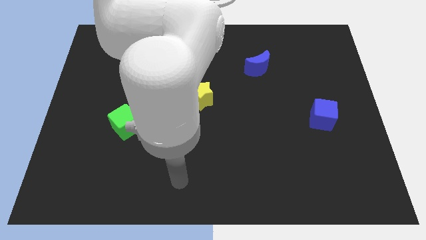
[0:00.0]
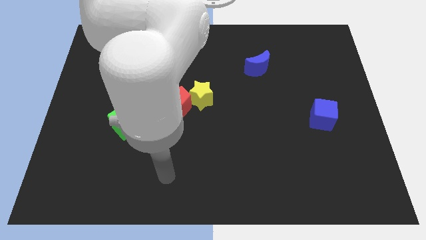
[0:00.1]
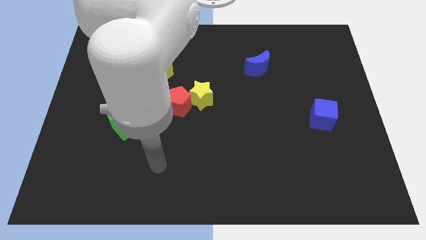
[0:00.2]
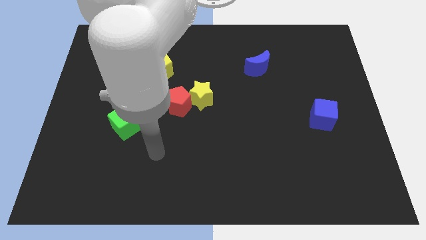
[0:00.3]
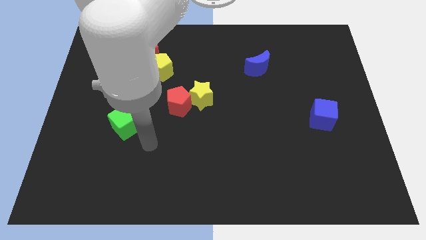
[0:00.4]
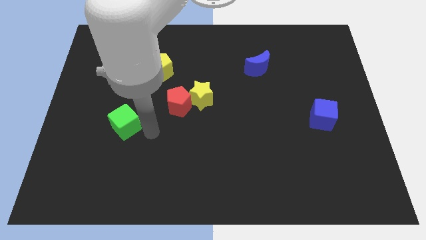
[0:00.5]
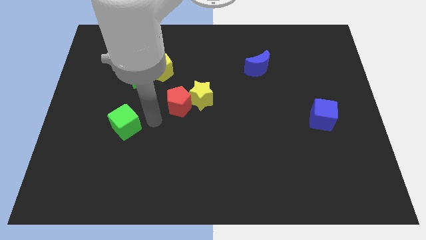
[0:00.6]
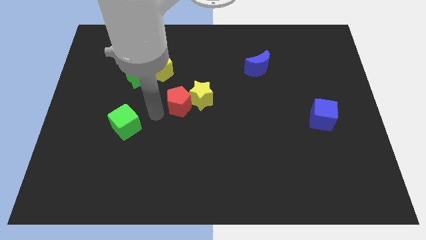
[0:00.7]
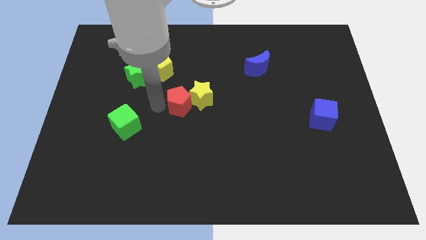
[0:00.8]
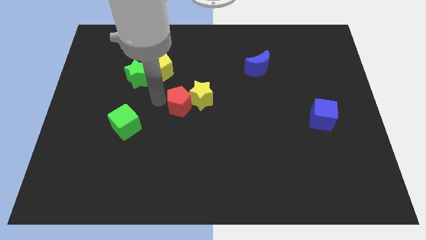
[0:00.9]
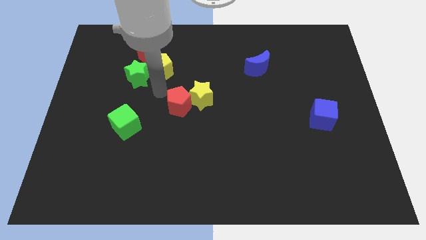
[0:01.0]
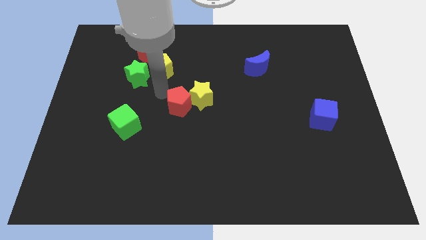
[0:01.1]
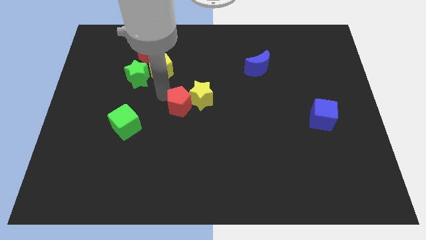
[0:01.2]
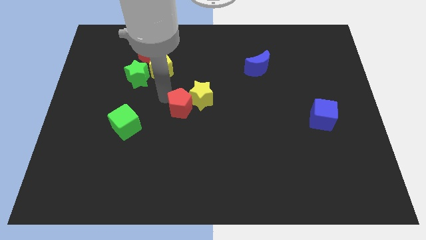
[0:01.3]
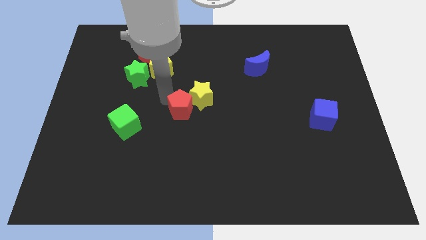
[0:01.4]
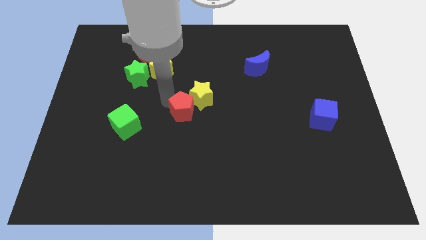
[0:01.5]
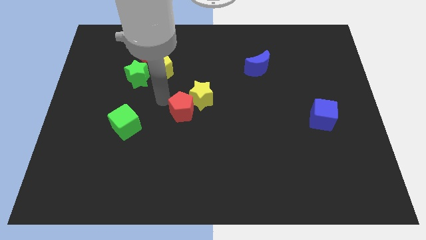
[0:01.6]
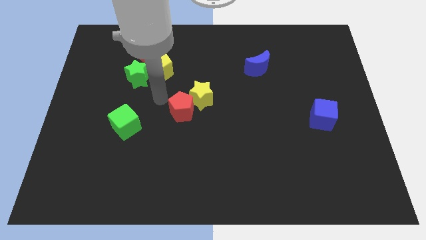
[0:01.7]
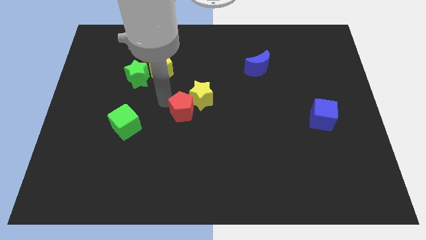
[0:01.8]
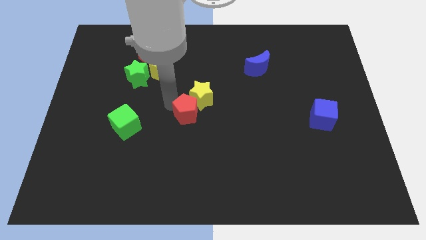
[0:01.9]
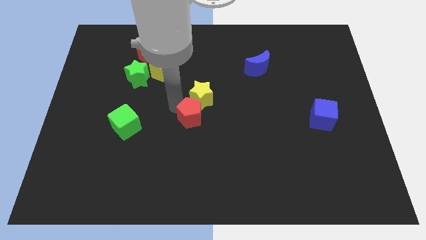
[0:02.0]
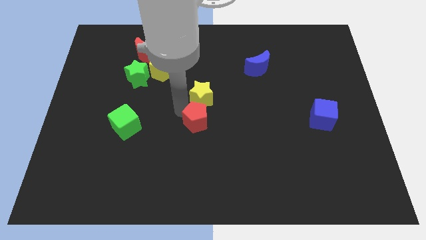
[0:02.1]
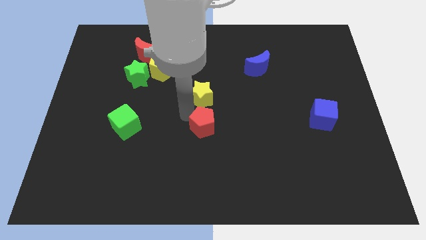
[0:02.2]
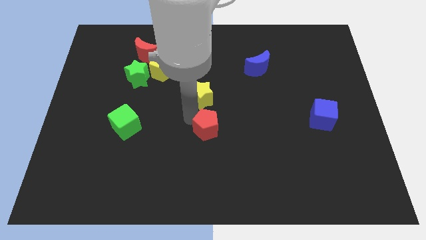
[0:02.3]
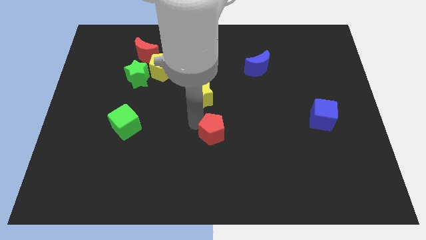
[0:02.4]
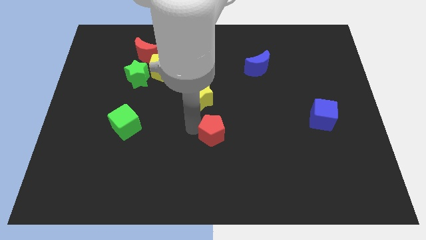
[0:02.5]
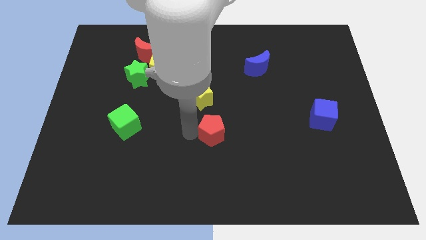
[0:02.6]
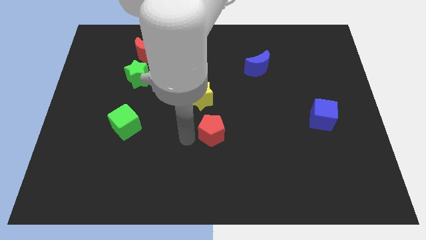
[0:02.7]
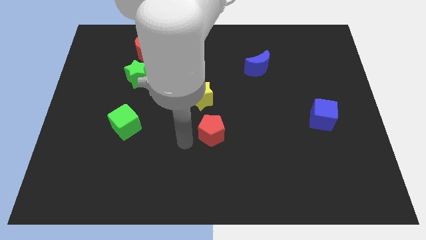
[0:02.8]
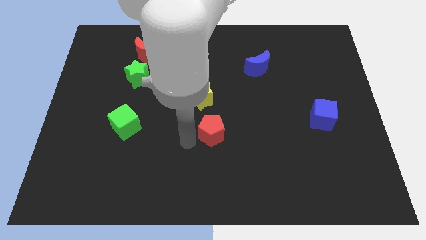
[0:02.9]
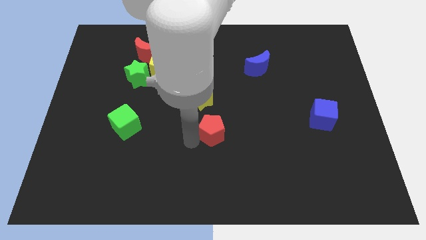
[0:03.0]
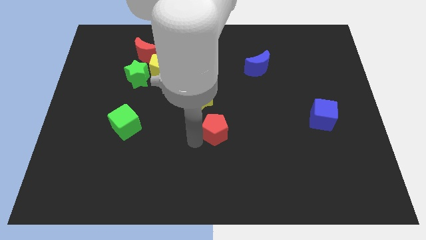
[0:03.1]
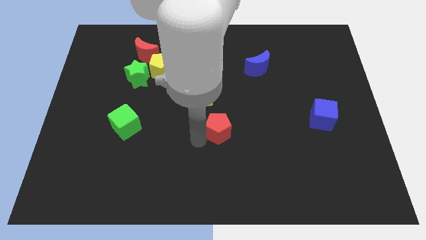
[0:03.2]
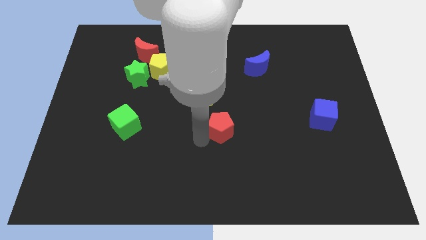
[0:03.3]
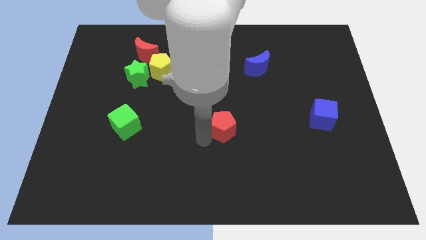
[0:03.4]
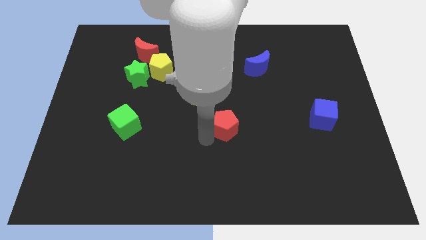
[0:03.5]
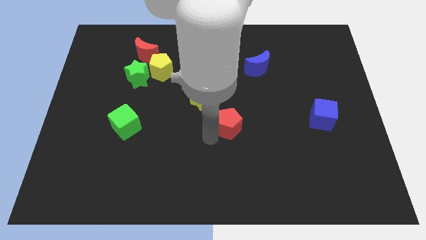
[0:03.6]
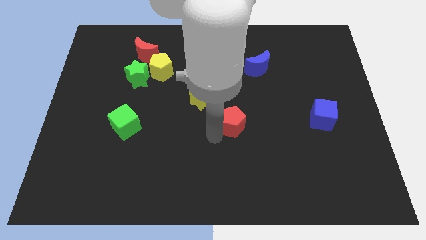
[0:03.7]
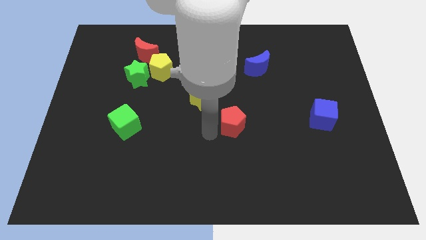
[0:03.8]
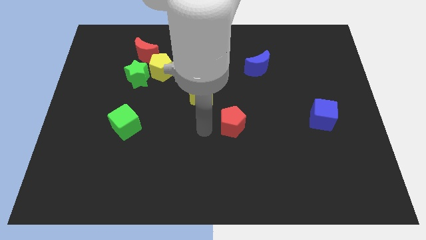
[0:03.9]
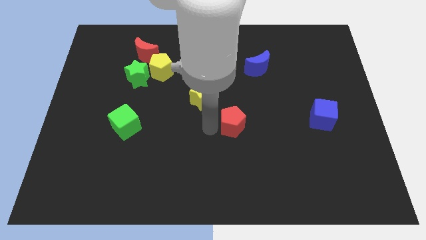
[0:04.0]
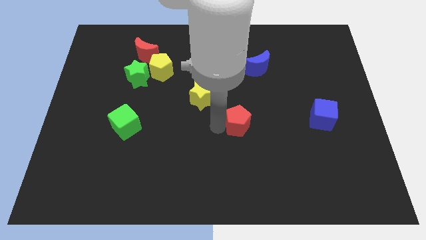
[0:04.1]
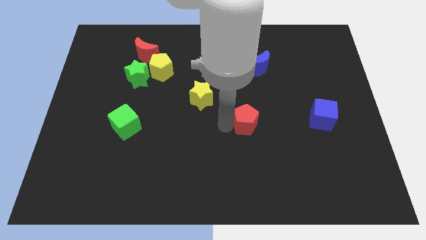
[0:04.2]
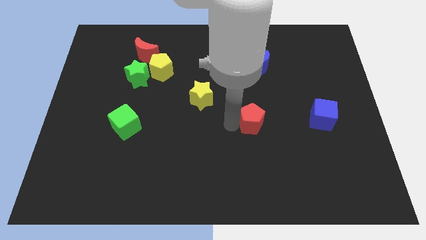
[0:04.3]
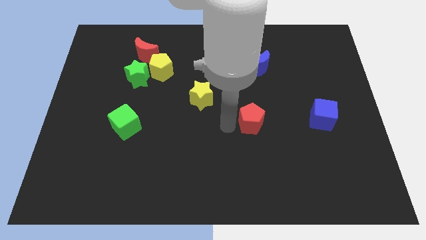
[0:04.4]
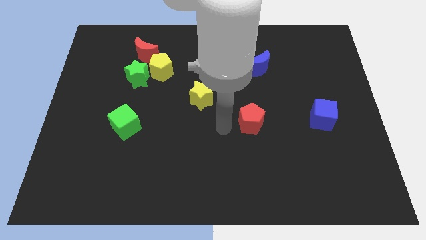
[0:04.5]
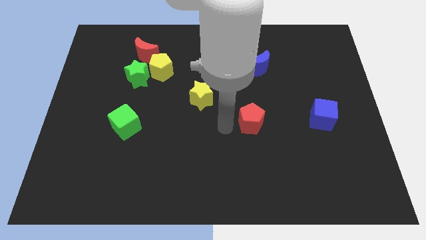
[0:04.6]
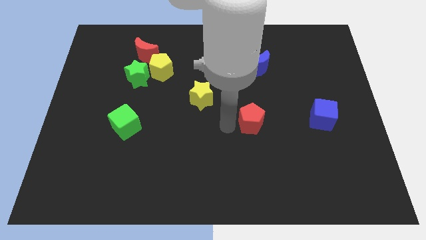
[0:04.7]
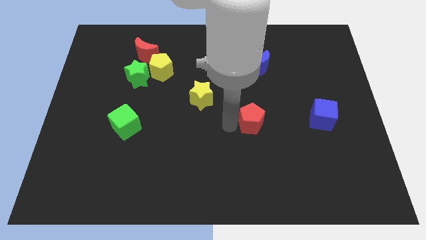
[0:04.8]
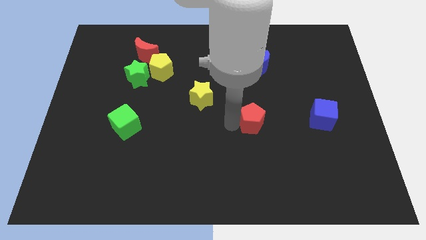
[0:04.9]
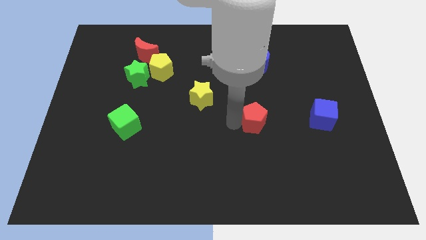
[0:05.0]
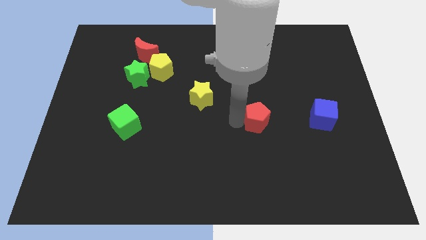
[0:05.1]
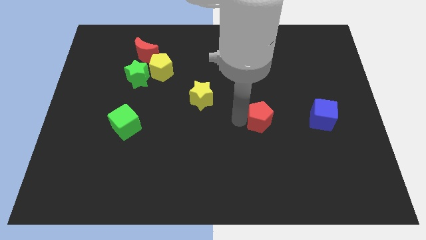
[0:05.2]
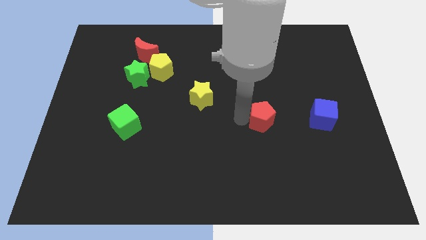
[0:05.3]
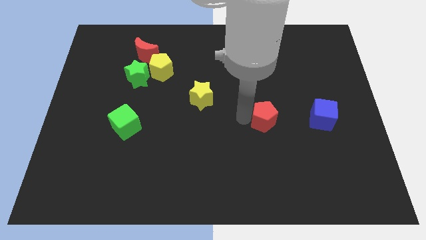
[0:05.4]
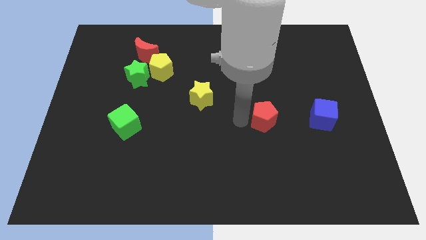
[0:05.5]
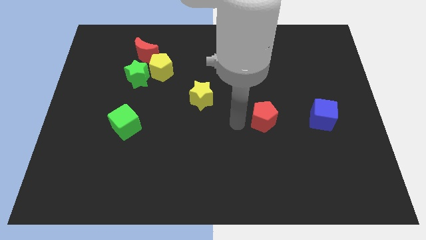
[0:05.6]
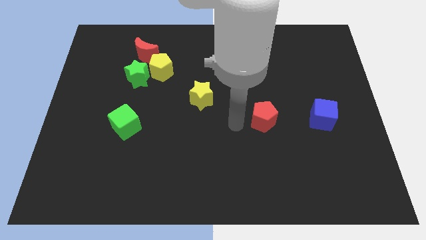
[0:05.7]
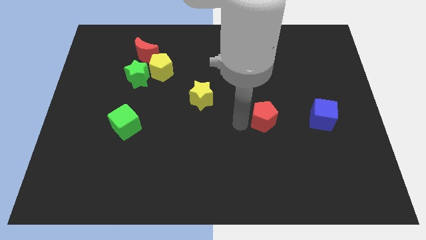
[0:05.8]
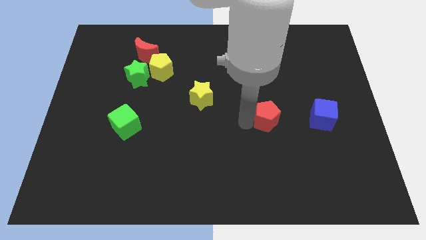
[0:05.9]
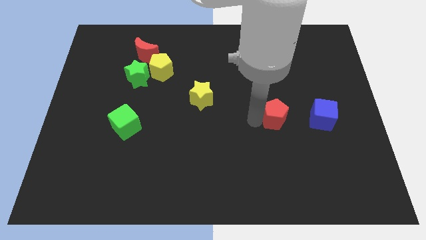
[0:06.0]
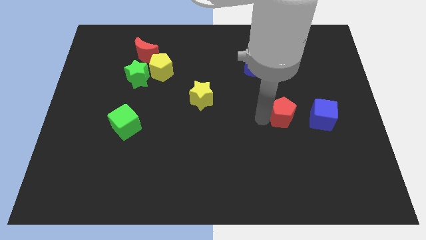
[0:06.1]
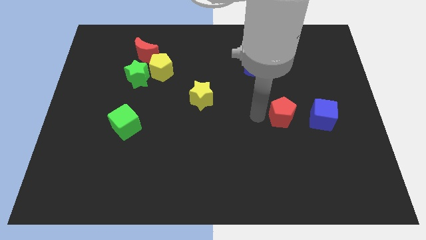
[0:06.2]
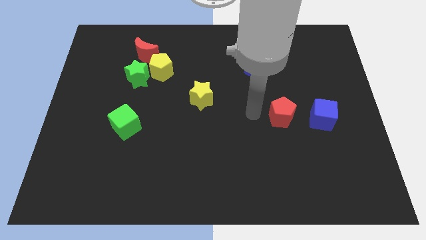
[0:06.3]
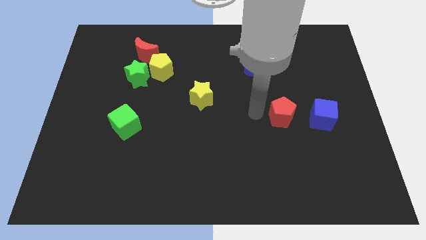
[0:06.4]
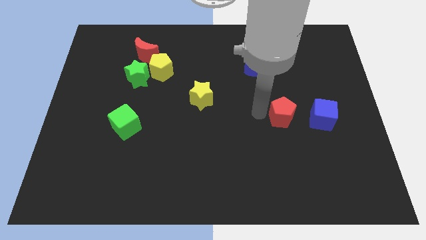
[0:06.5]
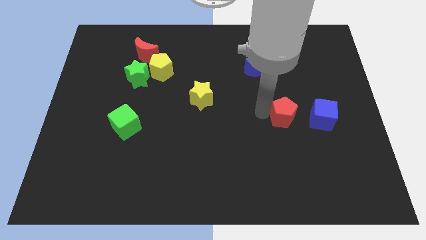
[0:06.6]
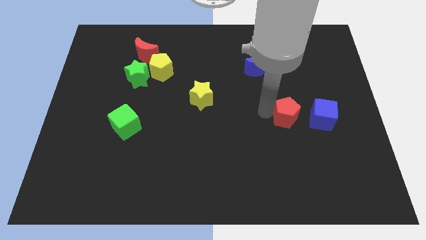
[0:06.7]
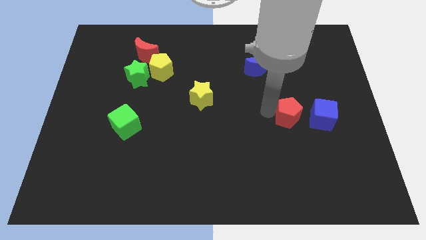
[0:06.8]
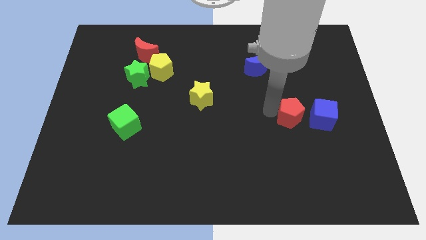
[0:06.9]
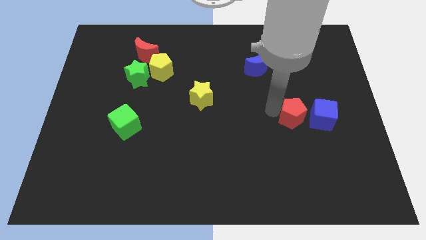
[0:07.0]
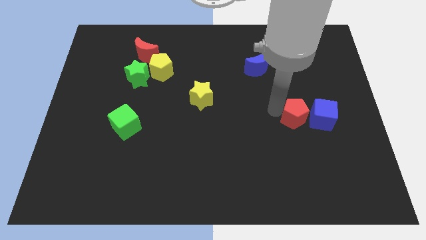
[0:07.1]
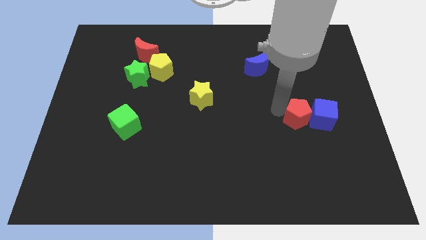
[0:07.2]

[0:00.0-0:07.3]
push the red pentagon next to the blue cube
